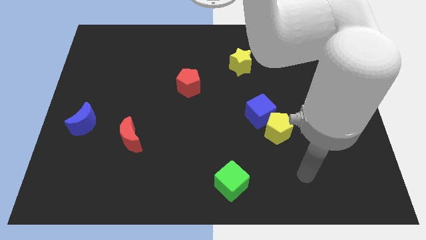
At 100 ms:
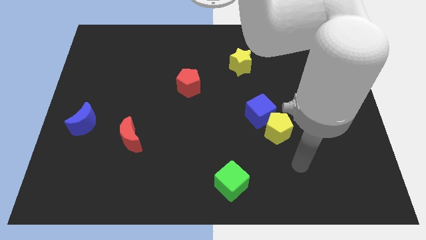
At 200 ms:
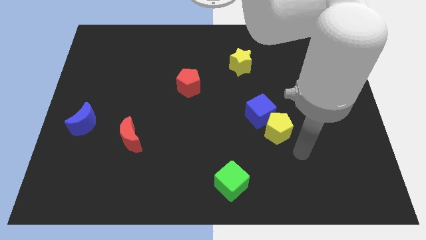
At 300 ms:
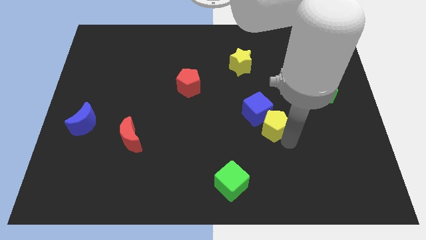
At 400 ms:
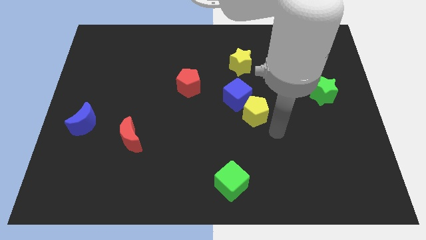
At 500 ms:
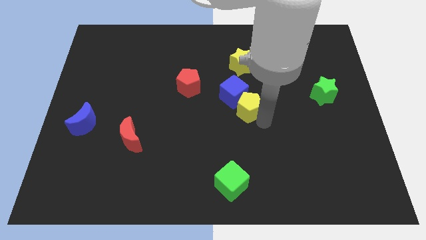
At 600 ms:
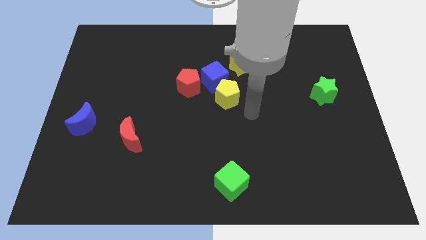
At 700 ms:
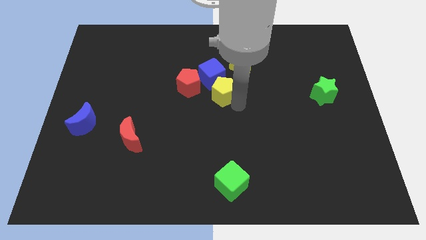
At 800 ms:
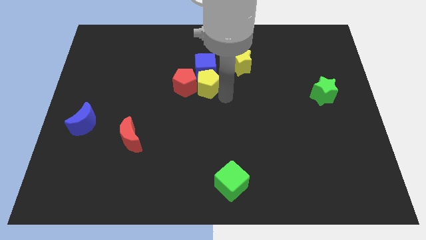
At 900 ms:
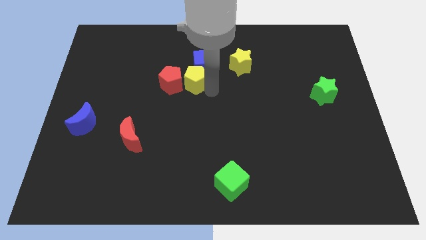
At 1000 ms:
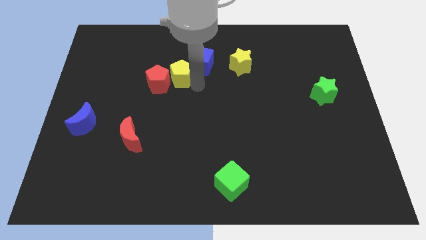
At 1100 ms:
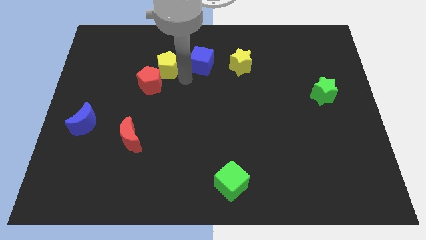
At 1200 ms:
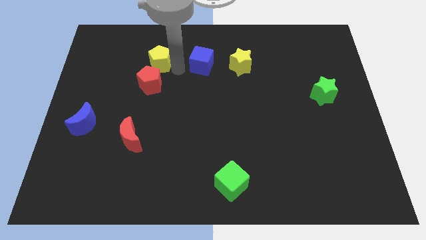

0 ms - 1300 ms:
separate the blue cube from the yellow pentagon

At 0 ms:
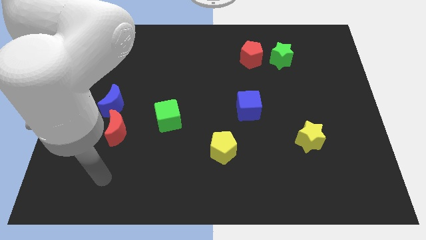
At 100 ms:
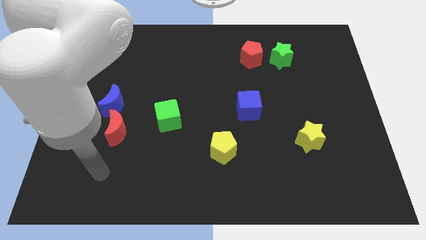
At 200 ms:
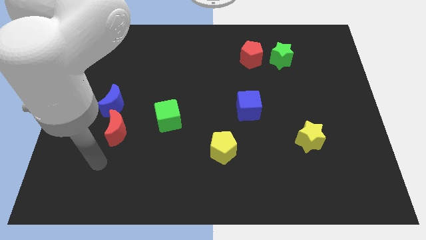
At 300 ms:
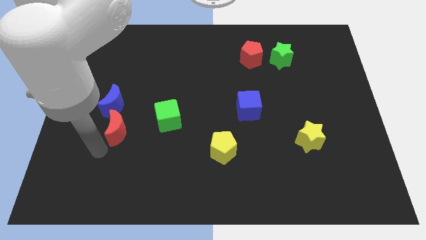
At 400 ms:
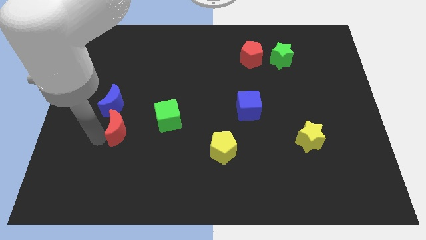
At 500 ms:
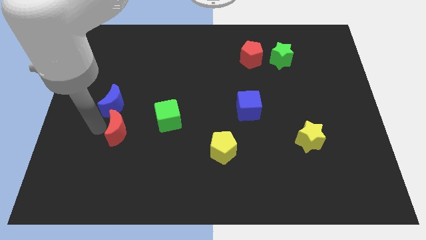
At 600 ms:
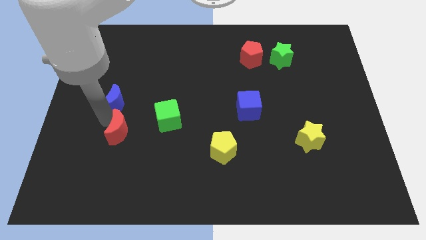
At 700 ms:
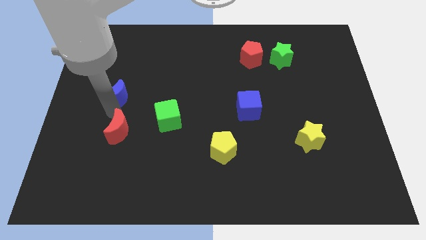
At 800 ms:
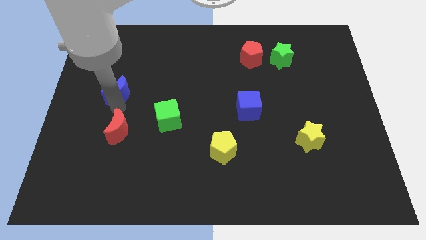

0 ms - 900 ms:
move the red moon away from the blue moon

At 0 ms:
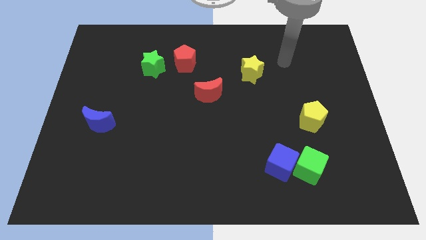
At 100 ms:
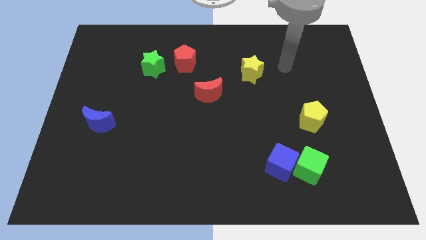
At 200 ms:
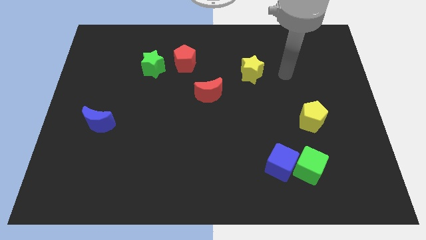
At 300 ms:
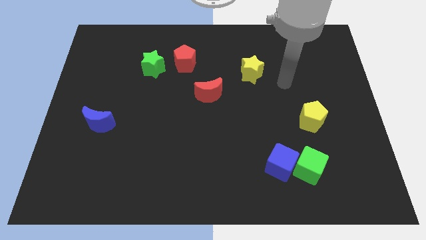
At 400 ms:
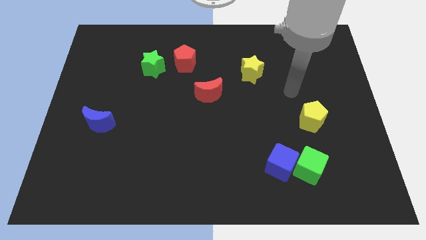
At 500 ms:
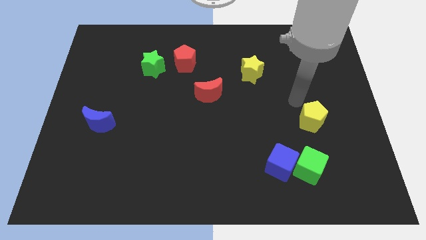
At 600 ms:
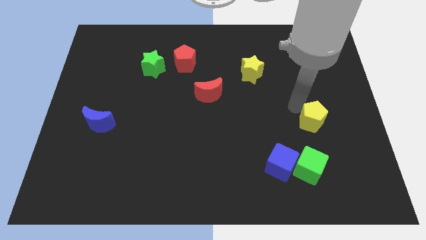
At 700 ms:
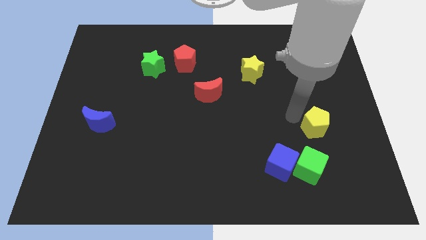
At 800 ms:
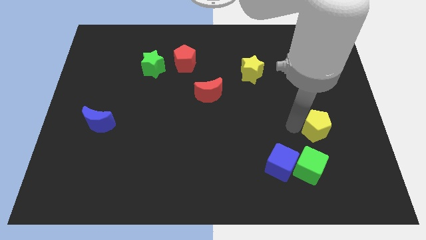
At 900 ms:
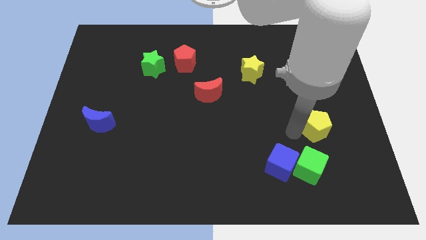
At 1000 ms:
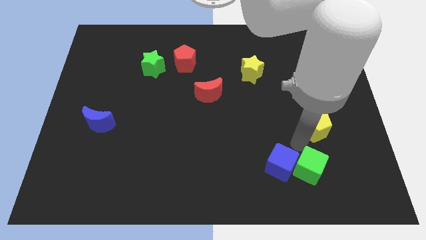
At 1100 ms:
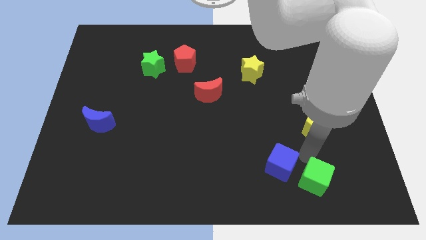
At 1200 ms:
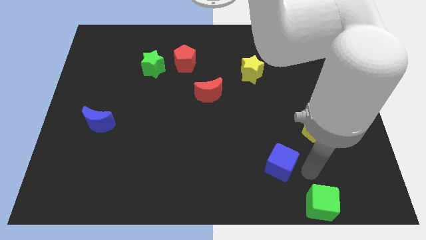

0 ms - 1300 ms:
move the blue cube away from the green cube

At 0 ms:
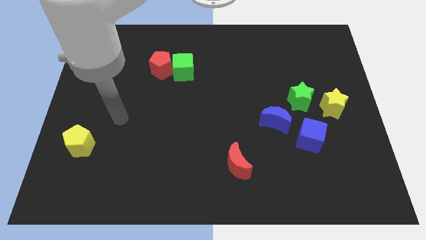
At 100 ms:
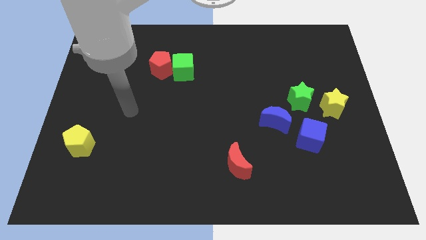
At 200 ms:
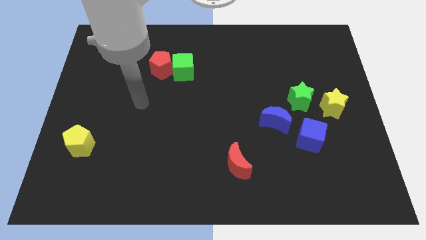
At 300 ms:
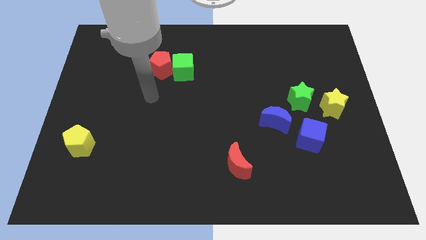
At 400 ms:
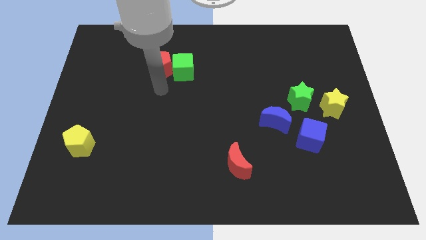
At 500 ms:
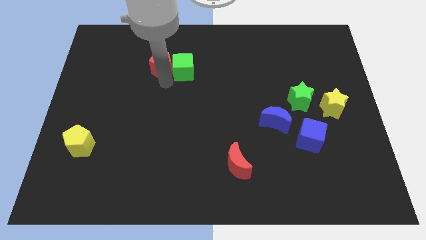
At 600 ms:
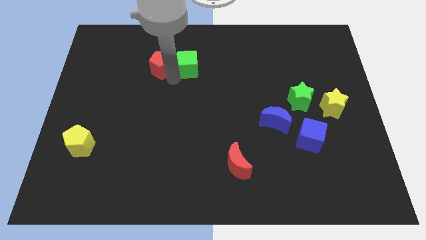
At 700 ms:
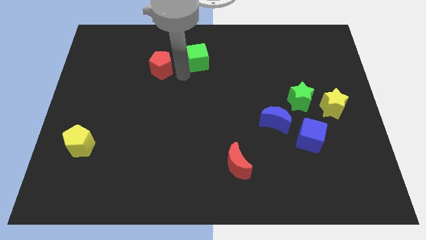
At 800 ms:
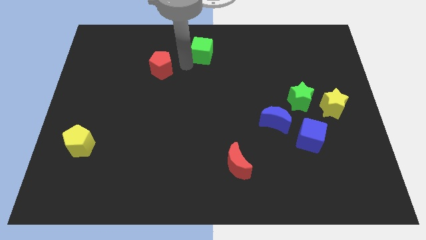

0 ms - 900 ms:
move the red pentagon away from the green cube

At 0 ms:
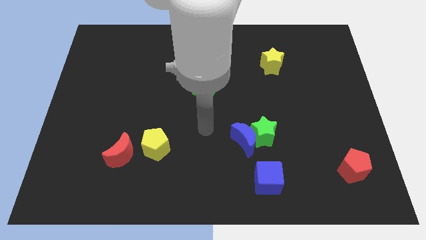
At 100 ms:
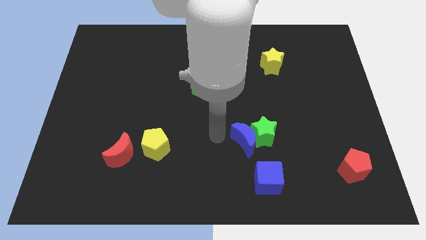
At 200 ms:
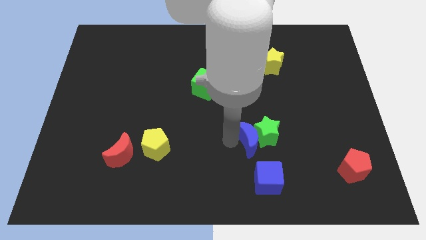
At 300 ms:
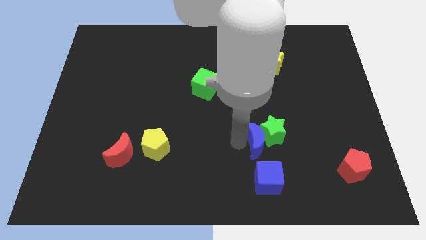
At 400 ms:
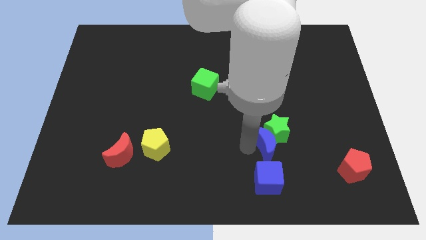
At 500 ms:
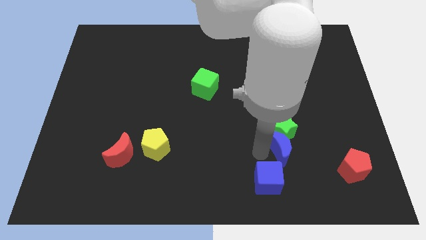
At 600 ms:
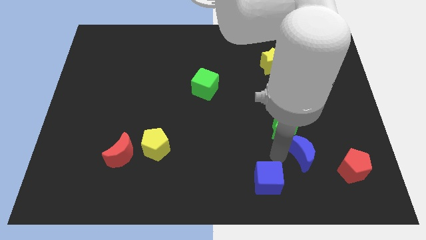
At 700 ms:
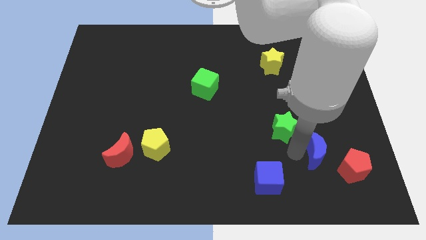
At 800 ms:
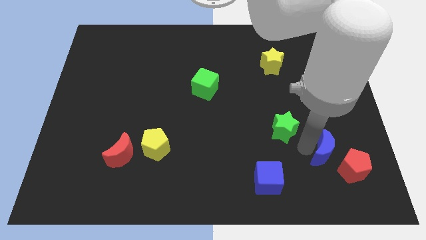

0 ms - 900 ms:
pull the green star apart from the blue moon

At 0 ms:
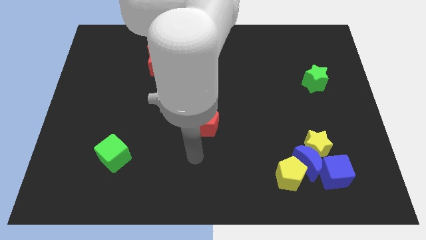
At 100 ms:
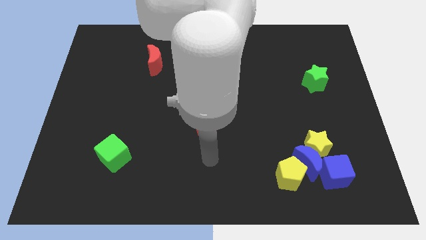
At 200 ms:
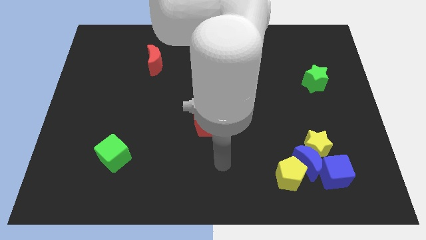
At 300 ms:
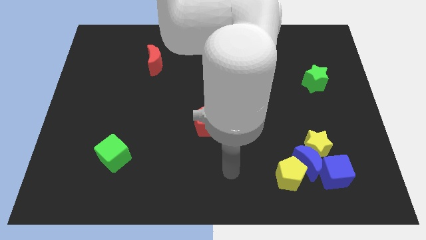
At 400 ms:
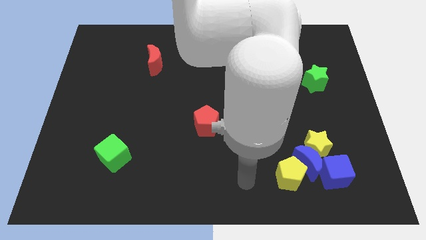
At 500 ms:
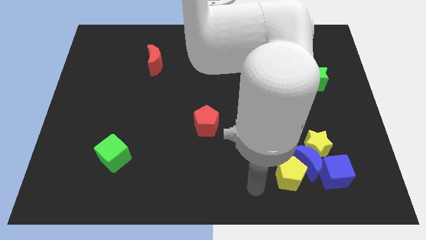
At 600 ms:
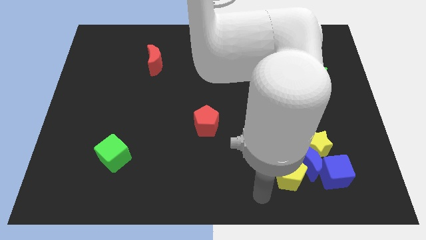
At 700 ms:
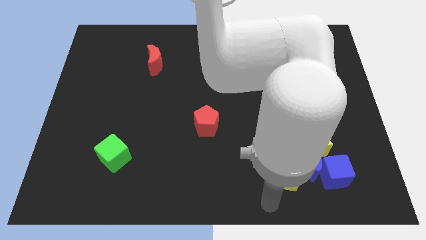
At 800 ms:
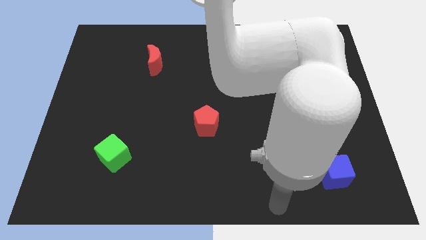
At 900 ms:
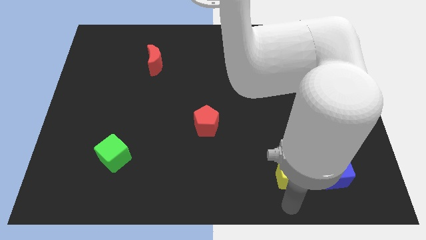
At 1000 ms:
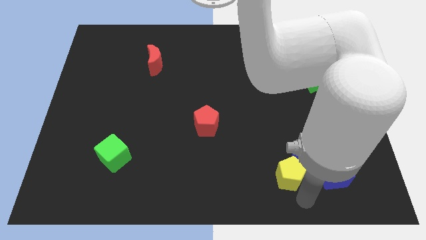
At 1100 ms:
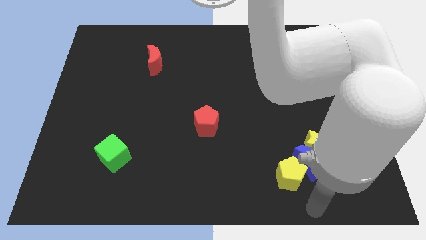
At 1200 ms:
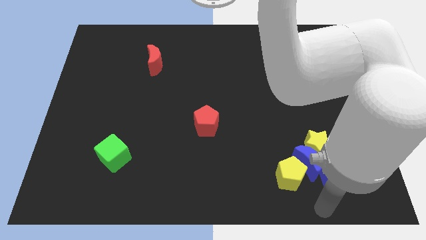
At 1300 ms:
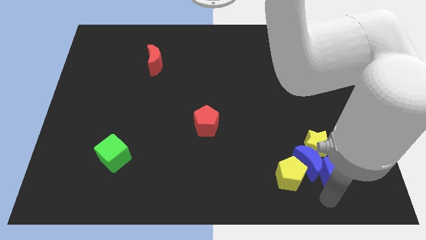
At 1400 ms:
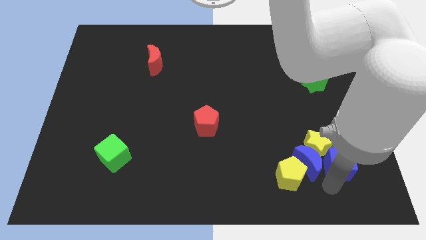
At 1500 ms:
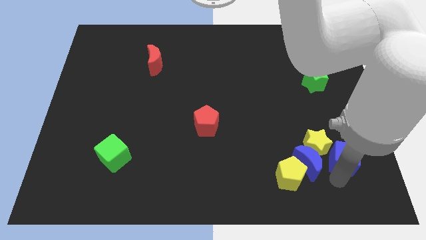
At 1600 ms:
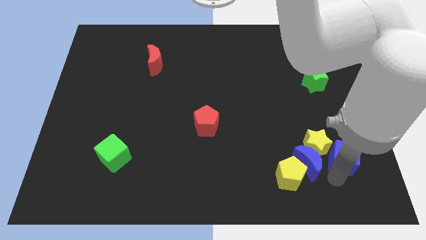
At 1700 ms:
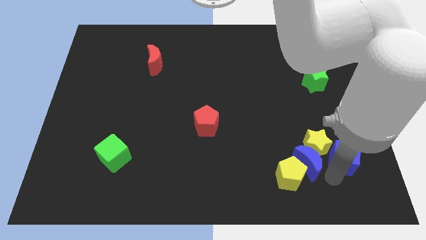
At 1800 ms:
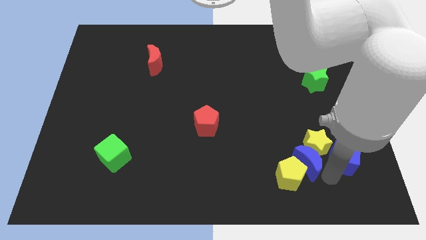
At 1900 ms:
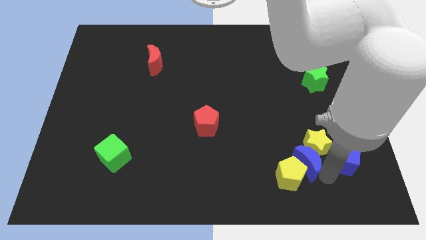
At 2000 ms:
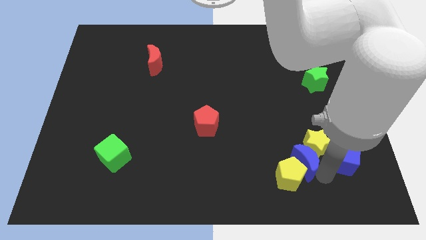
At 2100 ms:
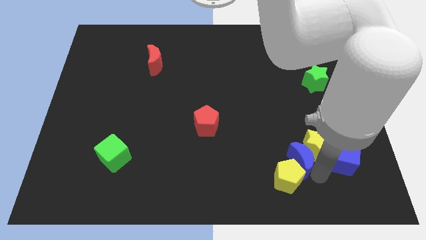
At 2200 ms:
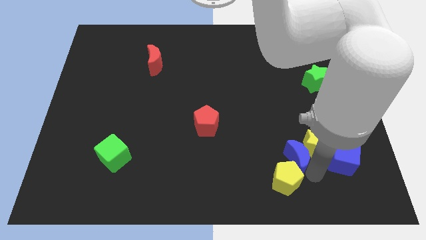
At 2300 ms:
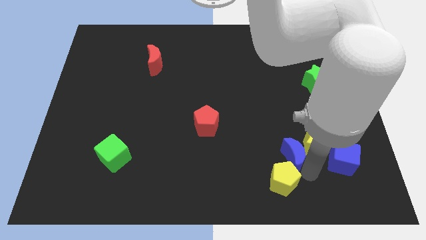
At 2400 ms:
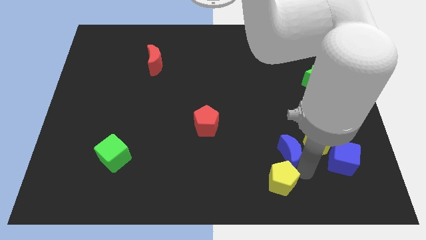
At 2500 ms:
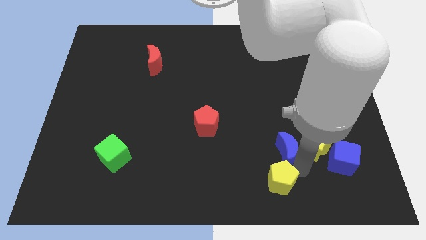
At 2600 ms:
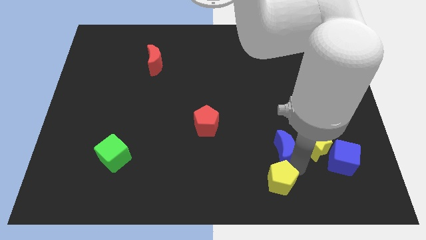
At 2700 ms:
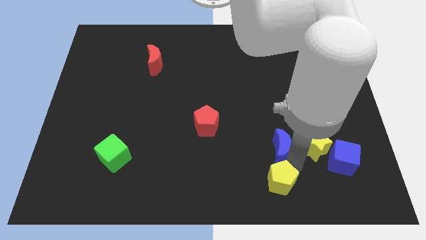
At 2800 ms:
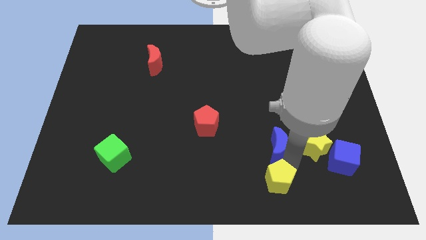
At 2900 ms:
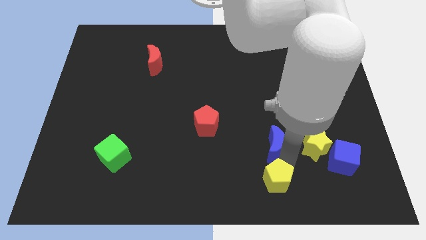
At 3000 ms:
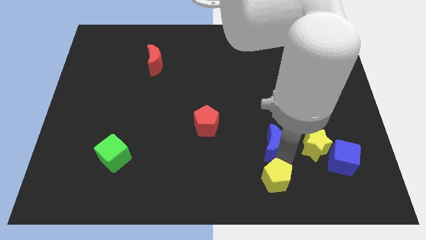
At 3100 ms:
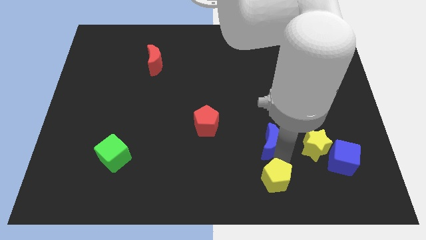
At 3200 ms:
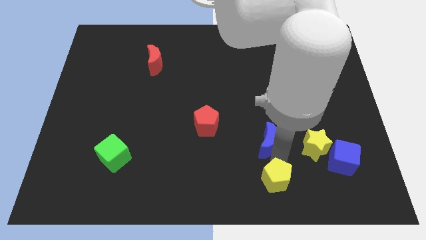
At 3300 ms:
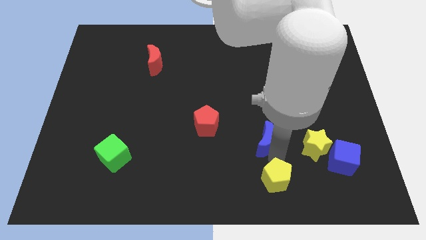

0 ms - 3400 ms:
pull the blue moon apart from the clump

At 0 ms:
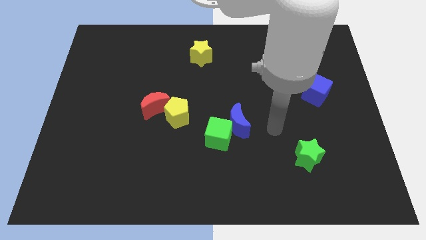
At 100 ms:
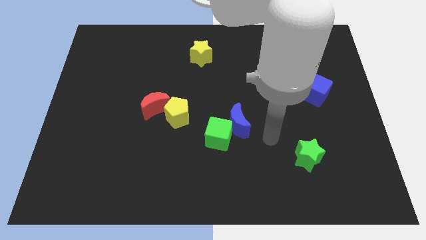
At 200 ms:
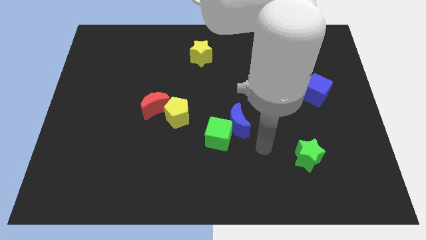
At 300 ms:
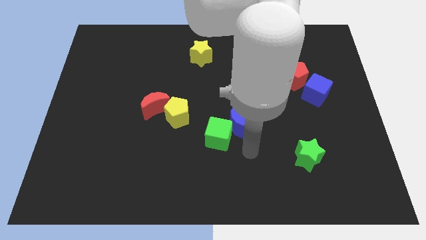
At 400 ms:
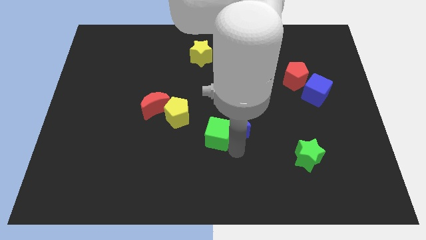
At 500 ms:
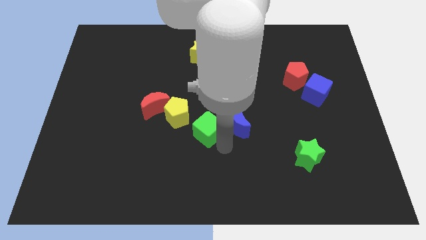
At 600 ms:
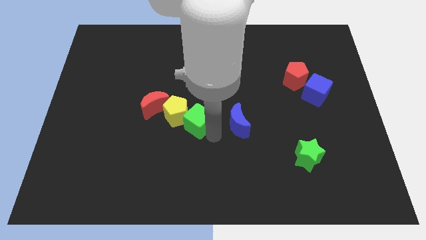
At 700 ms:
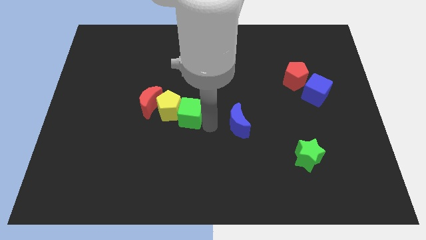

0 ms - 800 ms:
separate the blue moon from the green cube
